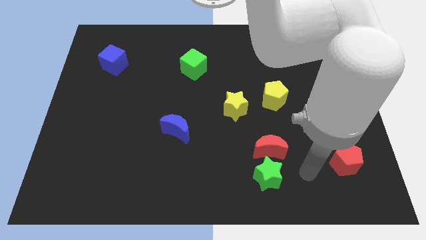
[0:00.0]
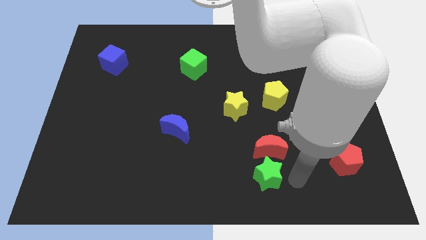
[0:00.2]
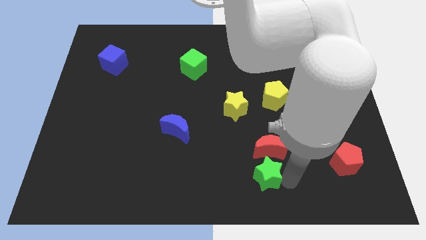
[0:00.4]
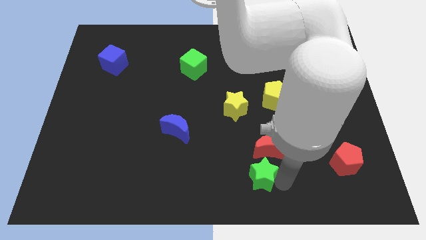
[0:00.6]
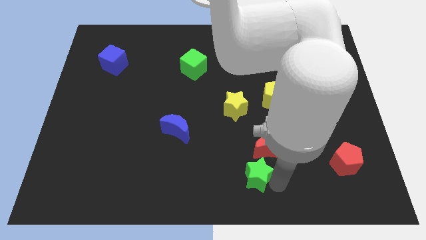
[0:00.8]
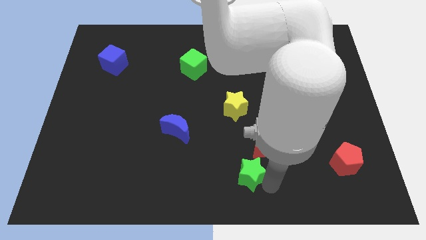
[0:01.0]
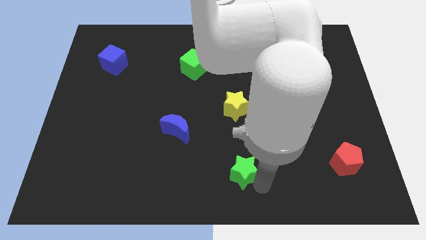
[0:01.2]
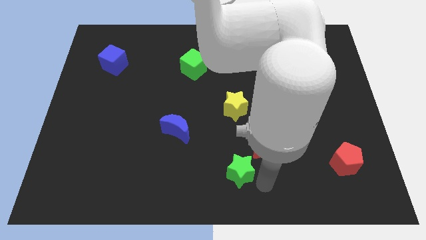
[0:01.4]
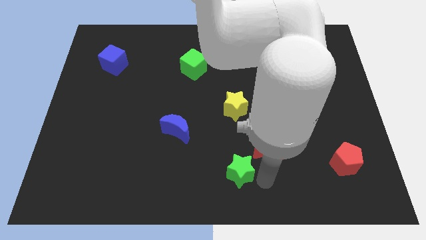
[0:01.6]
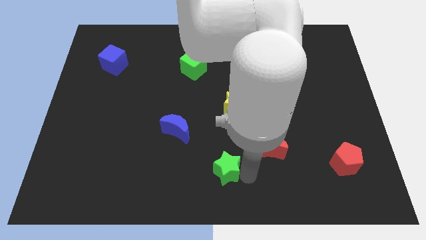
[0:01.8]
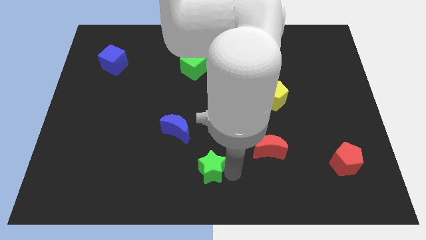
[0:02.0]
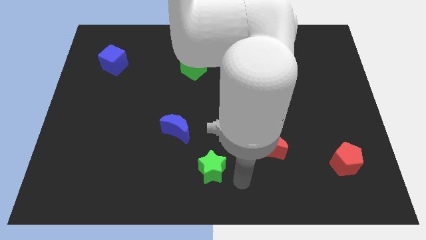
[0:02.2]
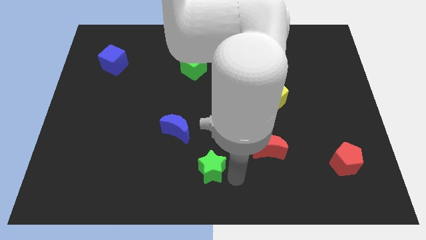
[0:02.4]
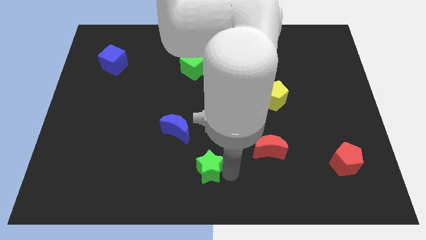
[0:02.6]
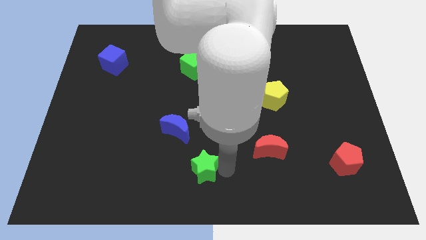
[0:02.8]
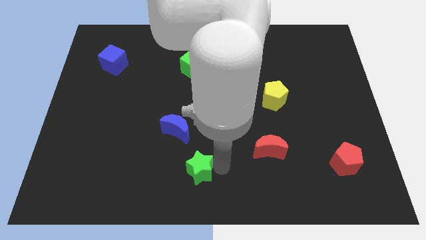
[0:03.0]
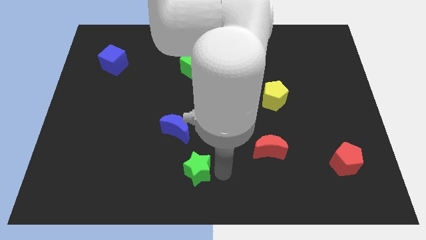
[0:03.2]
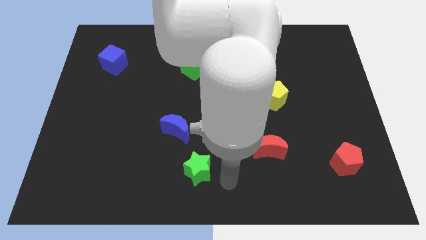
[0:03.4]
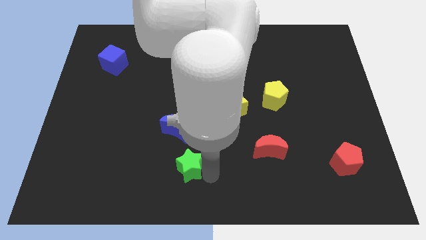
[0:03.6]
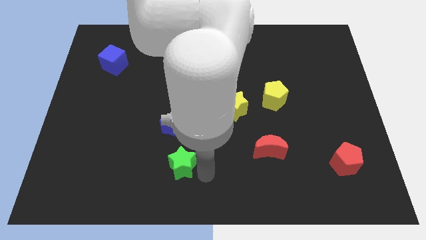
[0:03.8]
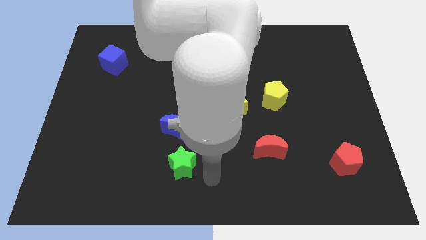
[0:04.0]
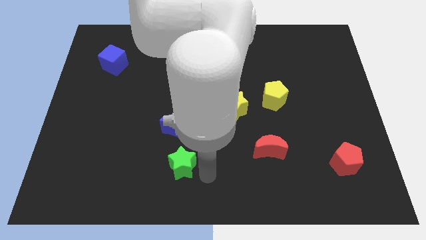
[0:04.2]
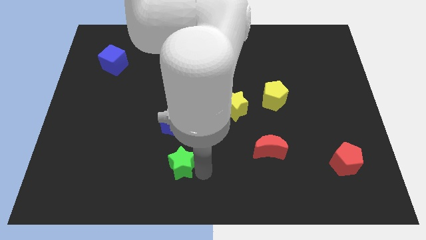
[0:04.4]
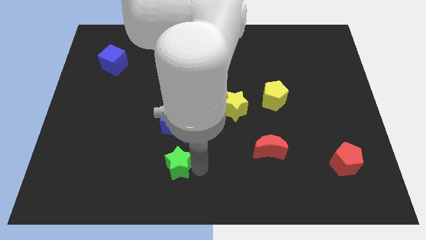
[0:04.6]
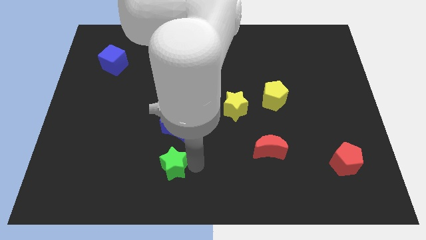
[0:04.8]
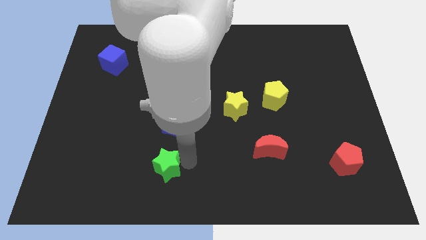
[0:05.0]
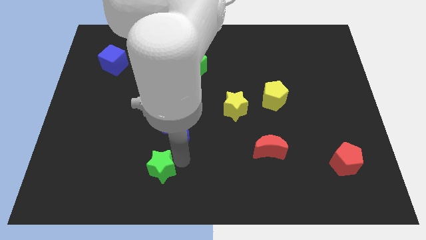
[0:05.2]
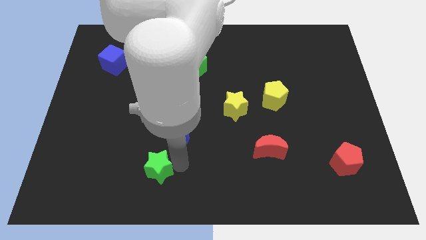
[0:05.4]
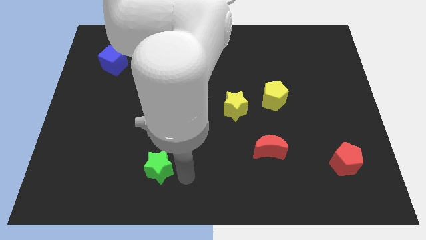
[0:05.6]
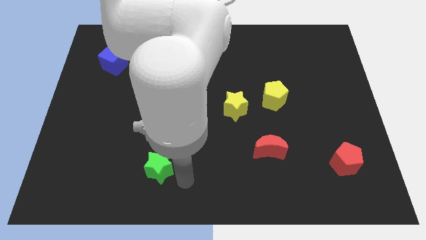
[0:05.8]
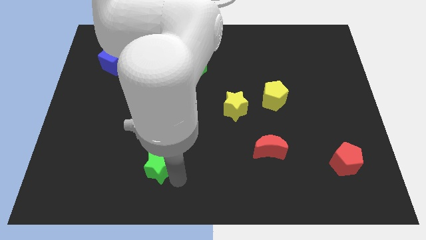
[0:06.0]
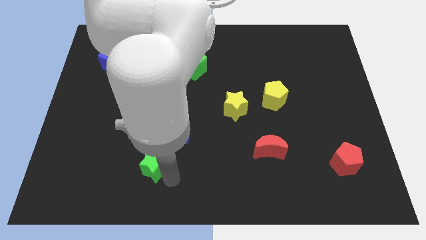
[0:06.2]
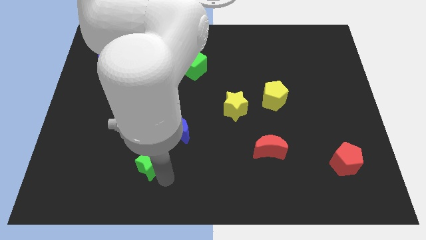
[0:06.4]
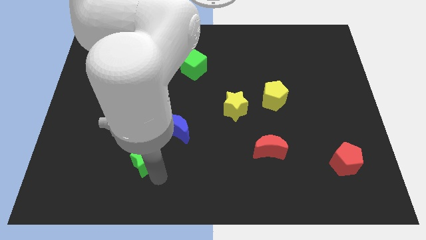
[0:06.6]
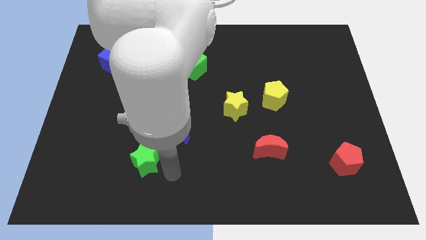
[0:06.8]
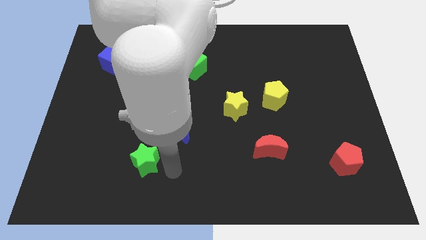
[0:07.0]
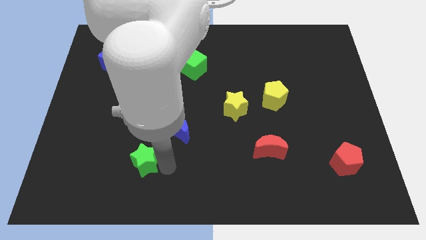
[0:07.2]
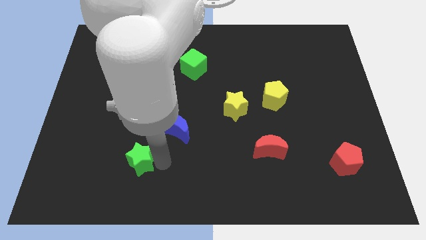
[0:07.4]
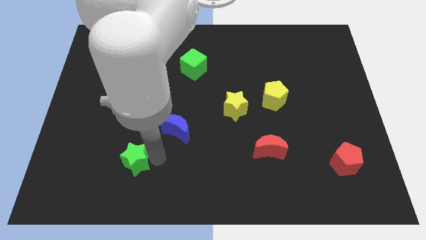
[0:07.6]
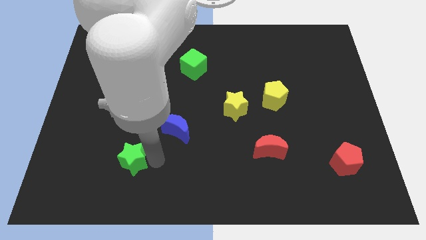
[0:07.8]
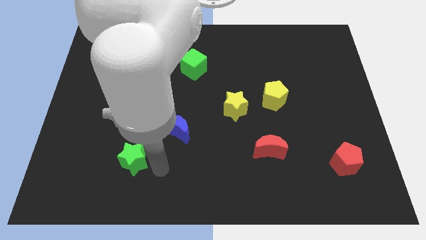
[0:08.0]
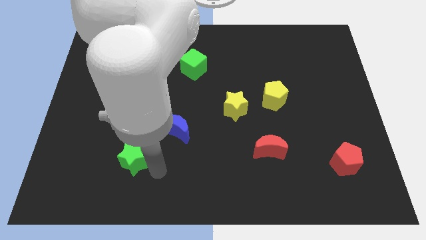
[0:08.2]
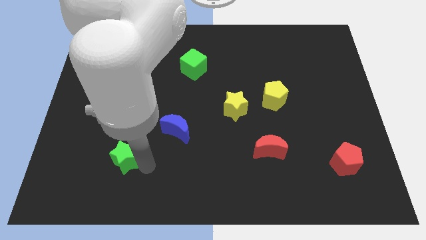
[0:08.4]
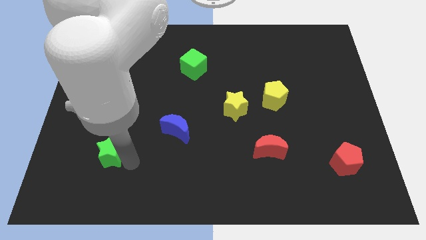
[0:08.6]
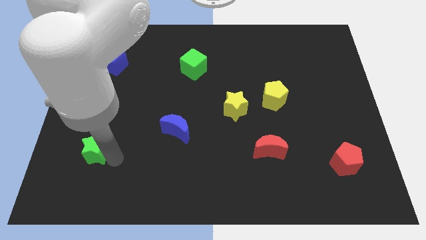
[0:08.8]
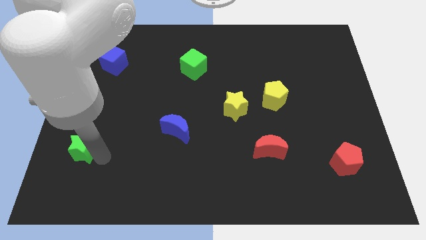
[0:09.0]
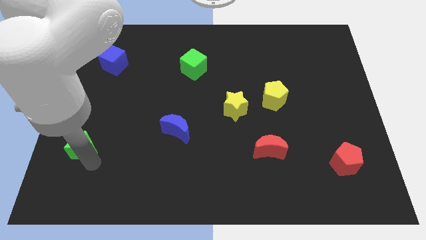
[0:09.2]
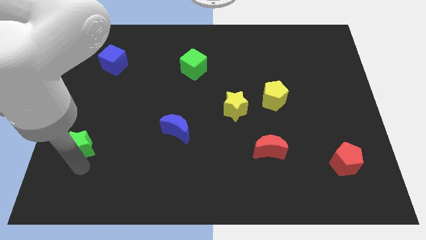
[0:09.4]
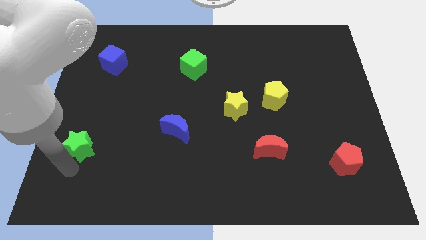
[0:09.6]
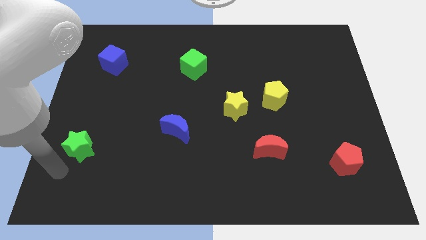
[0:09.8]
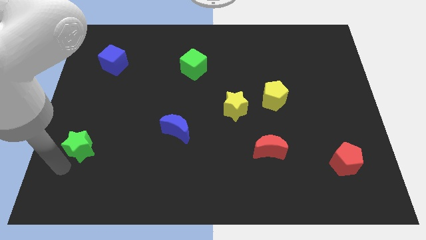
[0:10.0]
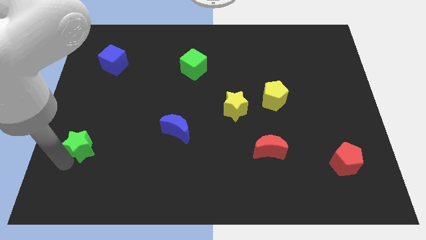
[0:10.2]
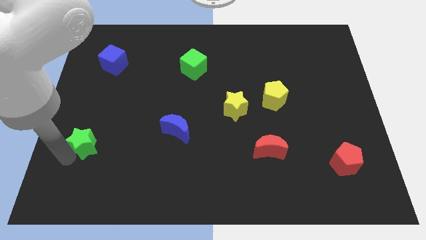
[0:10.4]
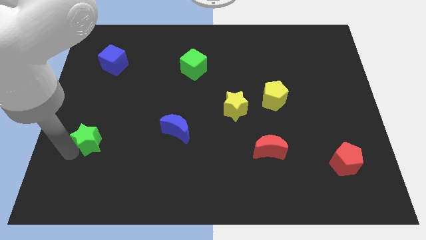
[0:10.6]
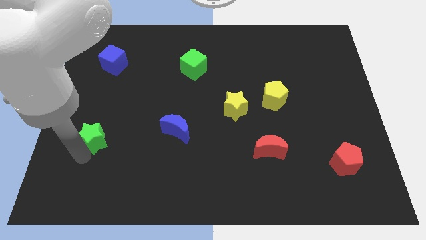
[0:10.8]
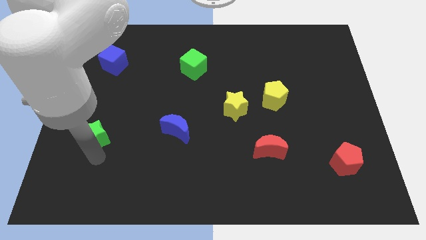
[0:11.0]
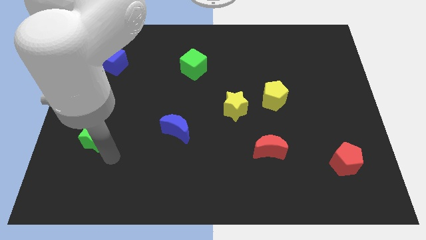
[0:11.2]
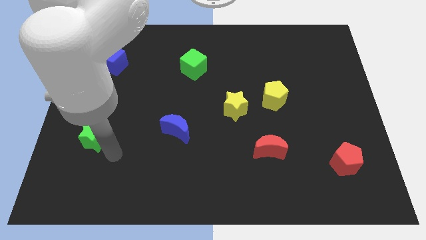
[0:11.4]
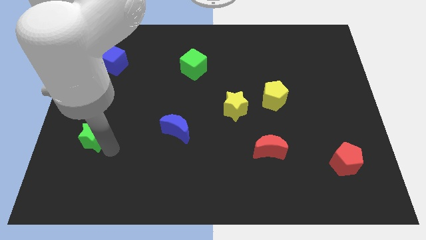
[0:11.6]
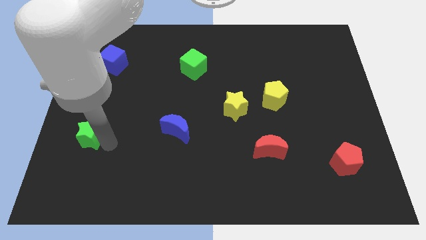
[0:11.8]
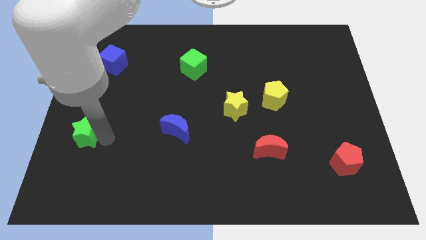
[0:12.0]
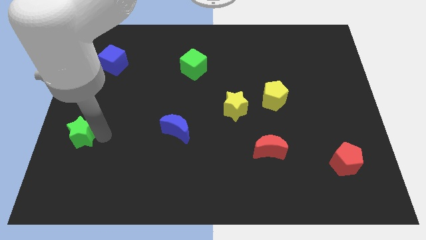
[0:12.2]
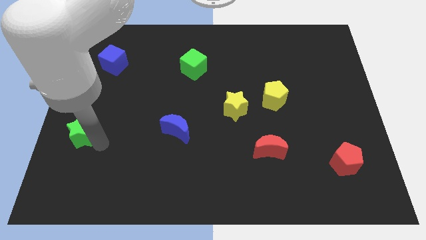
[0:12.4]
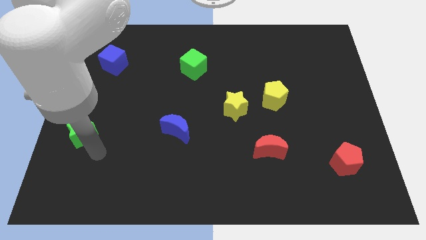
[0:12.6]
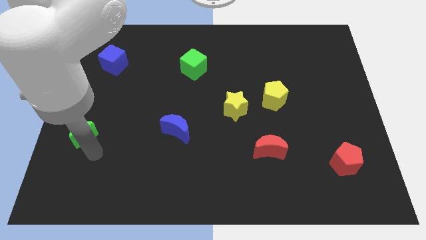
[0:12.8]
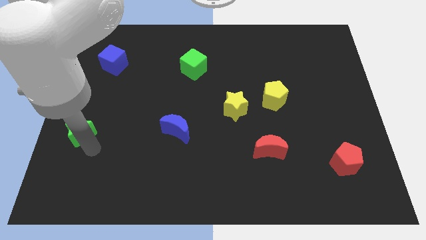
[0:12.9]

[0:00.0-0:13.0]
push the green star to the center left

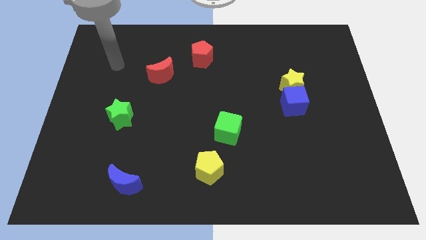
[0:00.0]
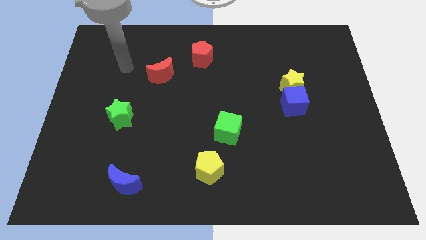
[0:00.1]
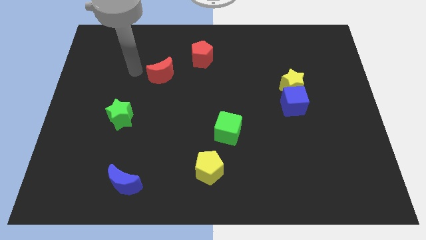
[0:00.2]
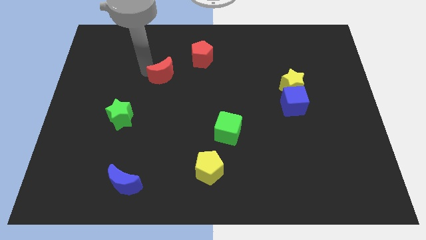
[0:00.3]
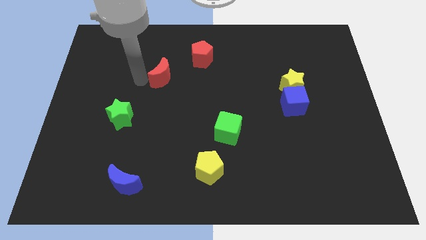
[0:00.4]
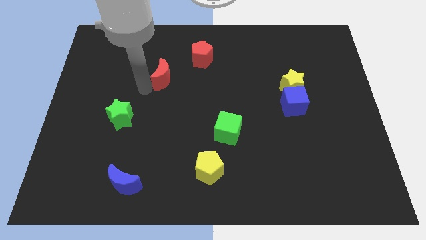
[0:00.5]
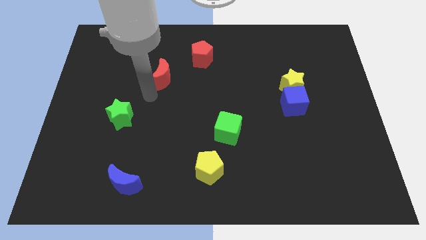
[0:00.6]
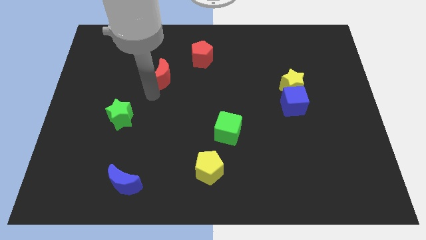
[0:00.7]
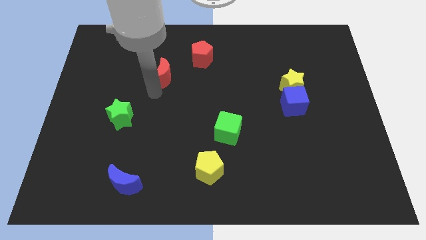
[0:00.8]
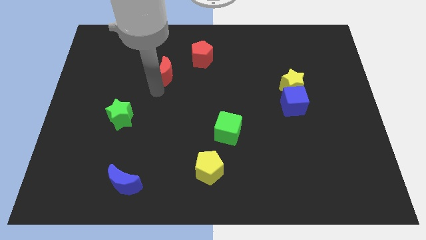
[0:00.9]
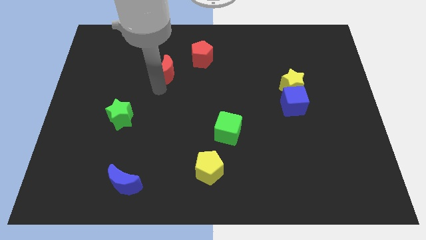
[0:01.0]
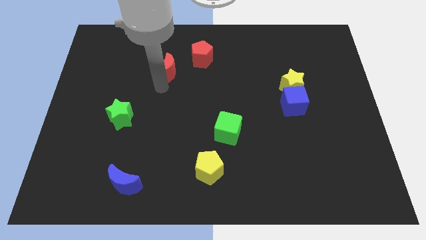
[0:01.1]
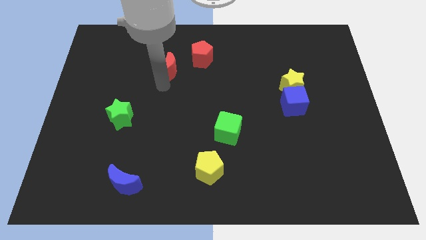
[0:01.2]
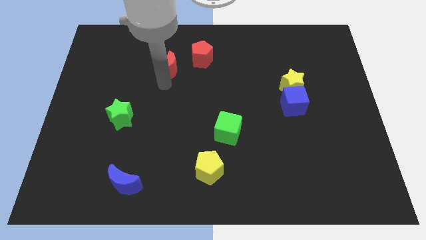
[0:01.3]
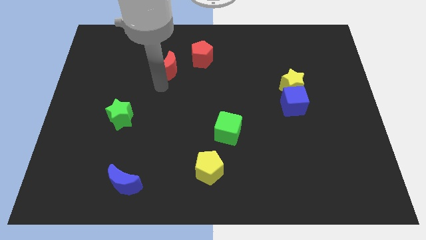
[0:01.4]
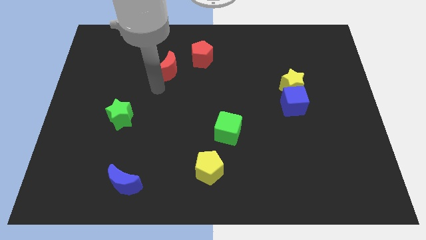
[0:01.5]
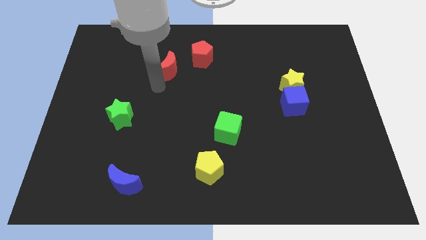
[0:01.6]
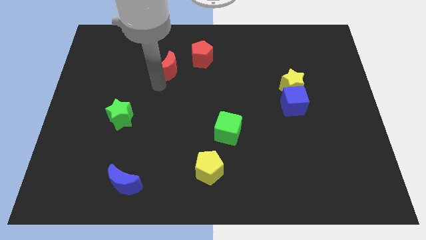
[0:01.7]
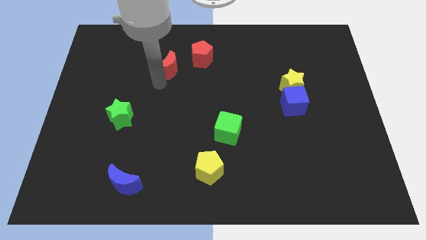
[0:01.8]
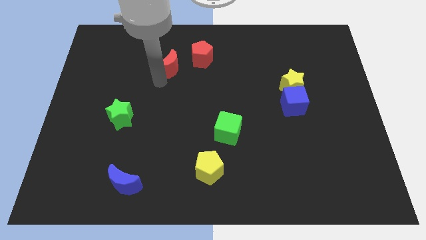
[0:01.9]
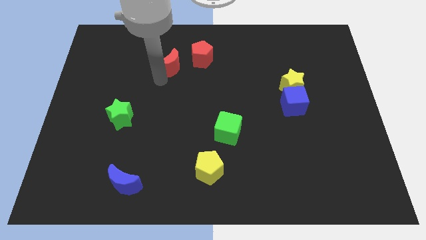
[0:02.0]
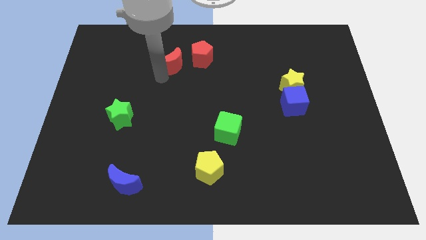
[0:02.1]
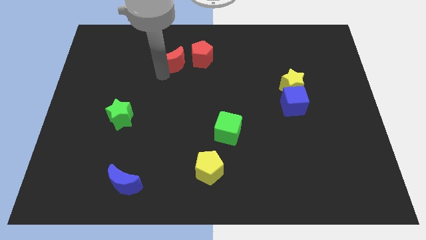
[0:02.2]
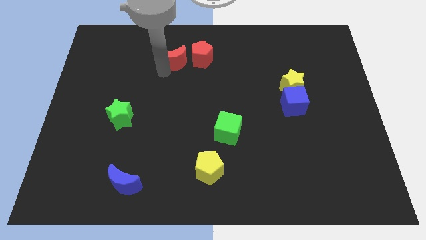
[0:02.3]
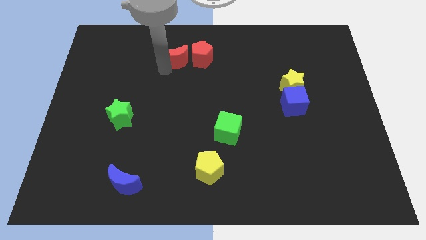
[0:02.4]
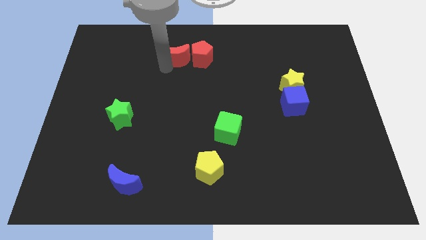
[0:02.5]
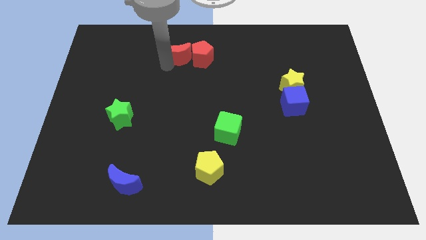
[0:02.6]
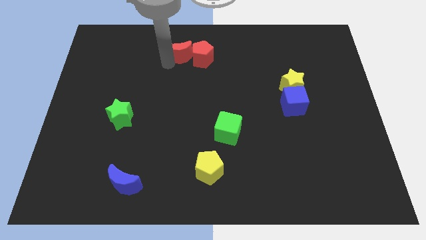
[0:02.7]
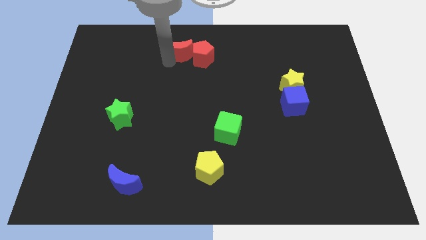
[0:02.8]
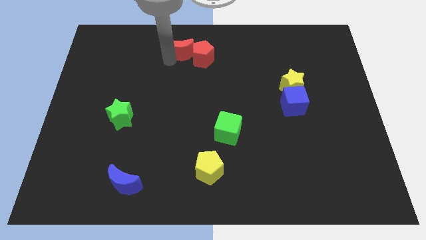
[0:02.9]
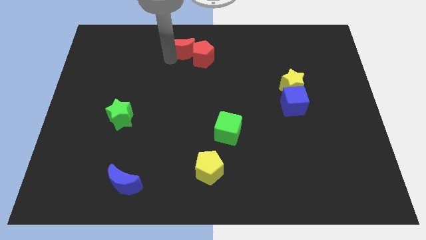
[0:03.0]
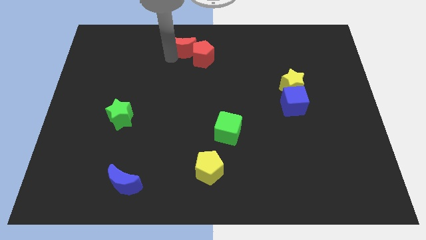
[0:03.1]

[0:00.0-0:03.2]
move the red moon to the top
